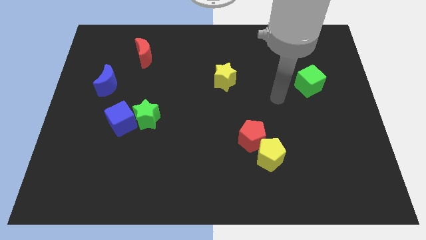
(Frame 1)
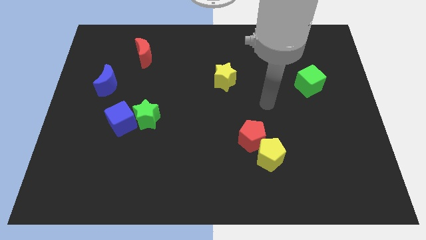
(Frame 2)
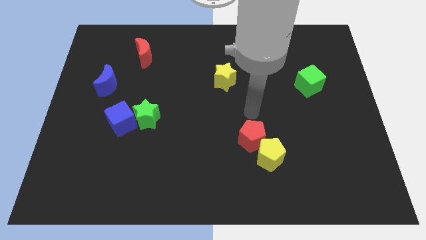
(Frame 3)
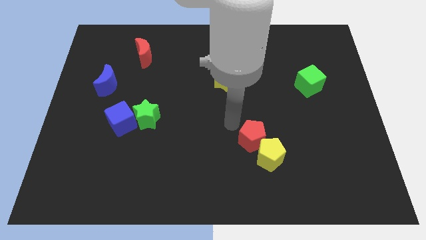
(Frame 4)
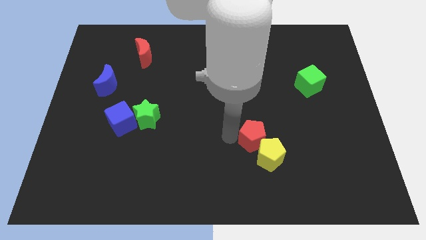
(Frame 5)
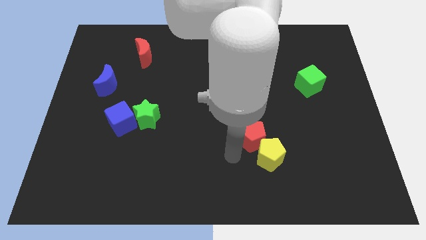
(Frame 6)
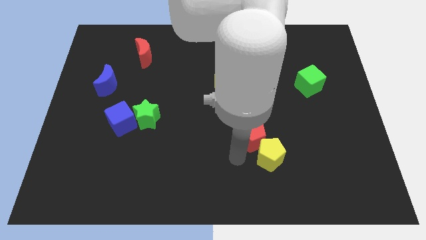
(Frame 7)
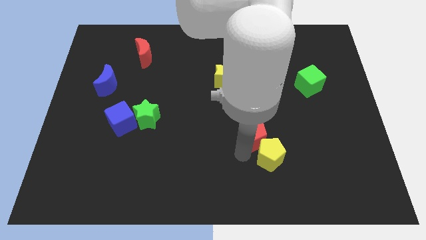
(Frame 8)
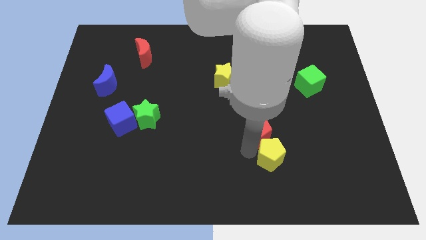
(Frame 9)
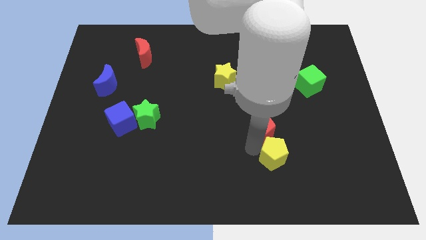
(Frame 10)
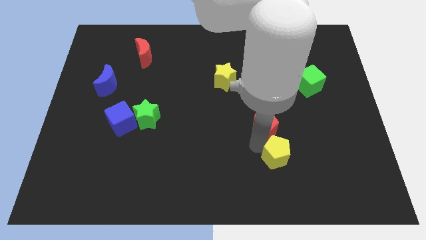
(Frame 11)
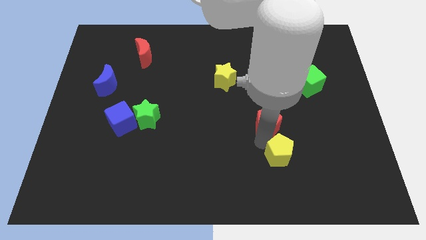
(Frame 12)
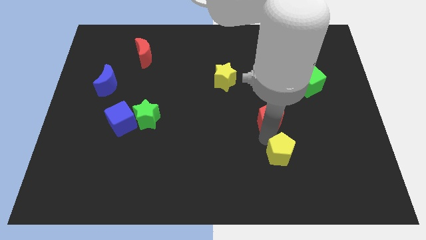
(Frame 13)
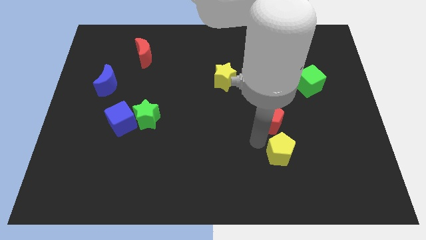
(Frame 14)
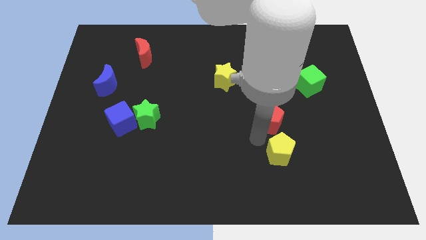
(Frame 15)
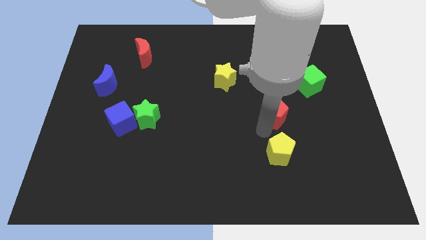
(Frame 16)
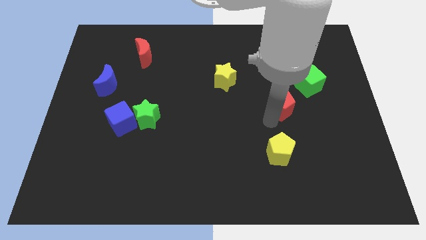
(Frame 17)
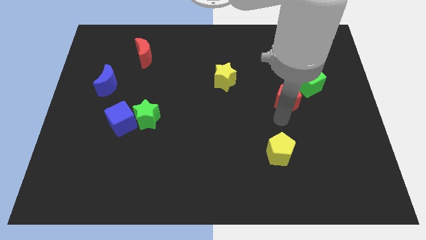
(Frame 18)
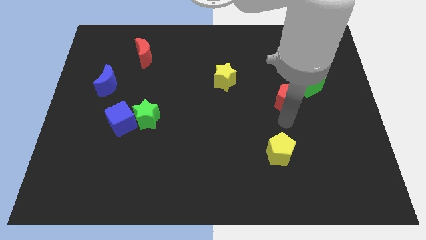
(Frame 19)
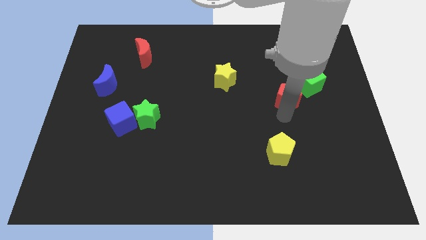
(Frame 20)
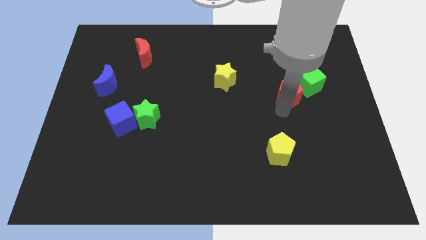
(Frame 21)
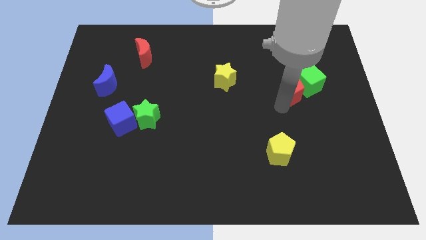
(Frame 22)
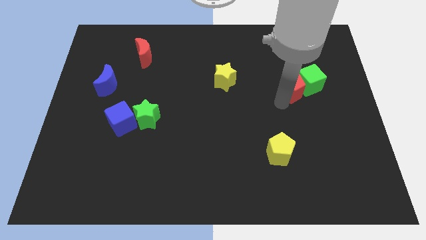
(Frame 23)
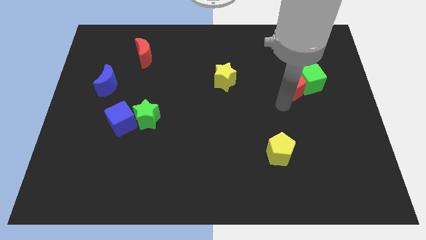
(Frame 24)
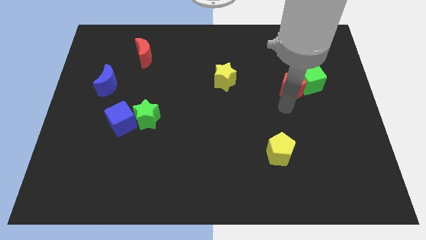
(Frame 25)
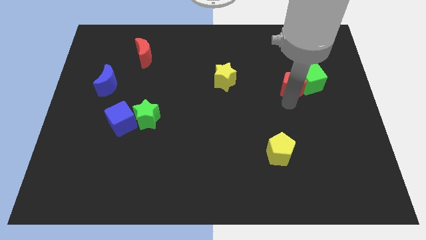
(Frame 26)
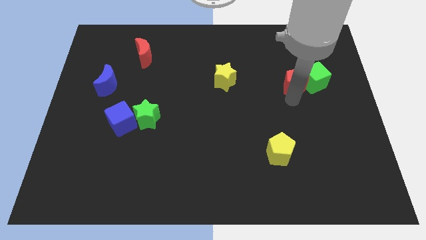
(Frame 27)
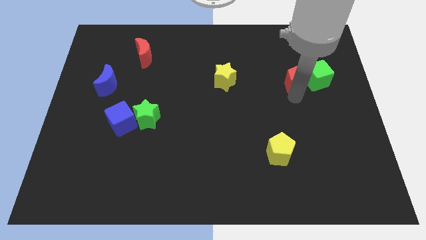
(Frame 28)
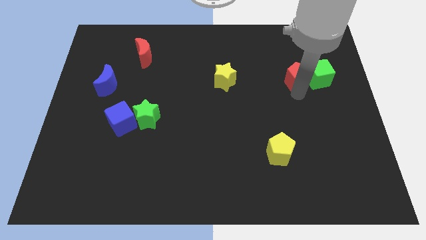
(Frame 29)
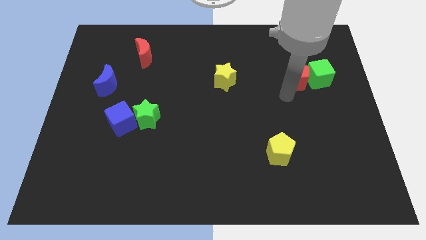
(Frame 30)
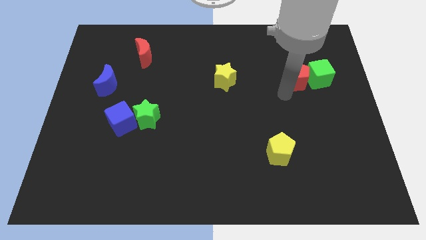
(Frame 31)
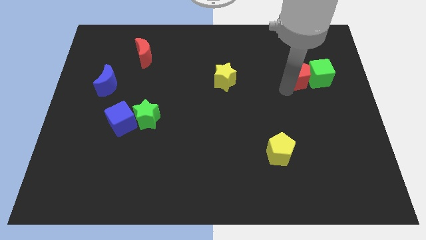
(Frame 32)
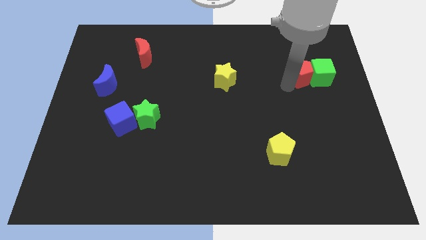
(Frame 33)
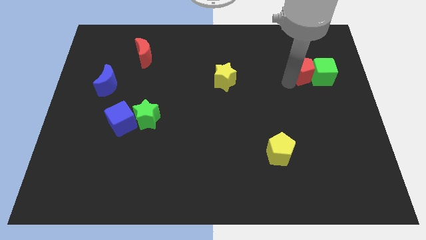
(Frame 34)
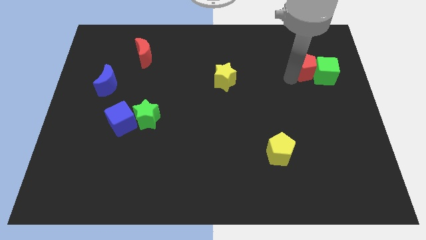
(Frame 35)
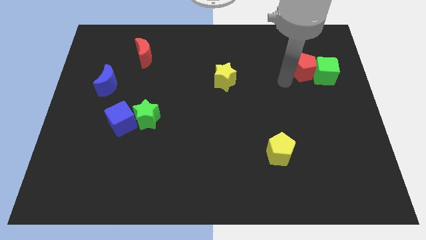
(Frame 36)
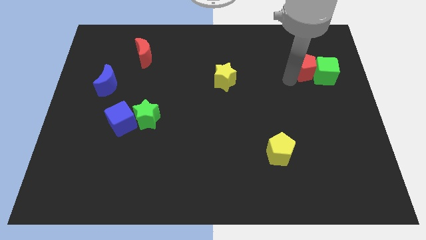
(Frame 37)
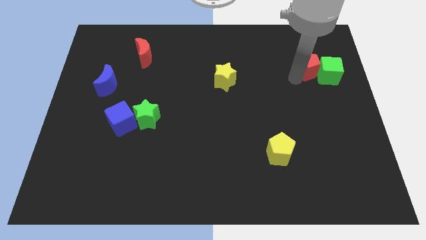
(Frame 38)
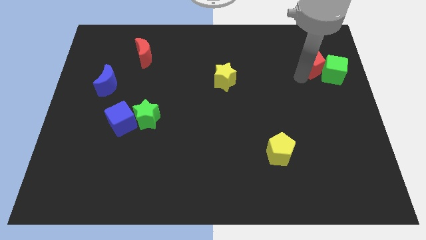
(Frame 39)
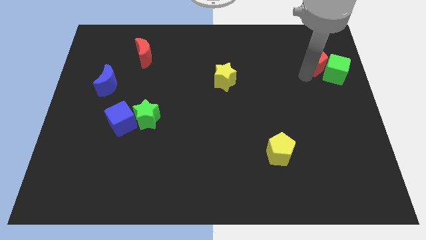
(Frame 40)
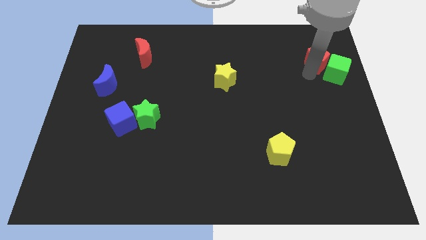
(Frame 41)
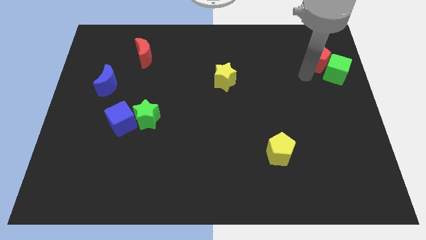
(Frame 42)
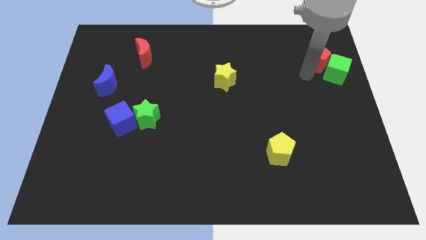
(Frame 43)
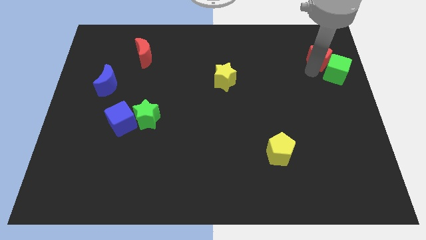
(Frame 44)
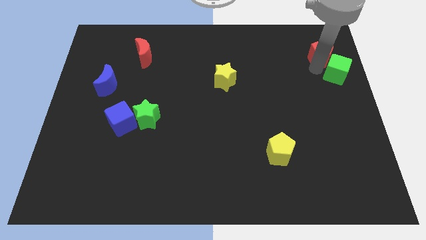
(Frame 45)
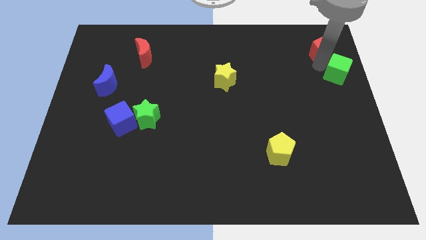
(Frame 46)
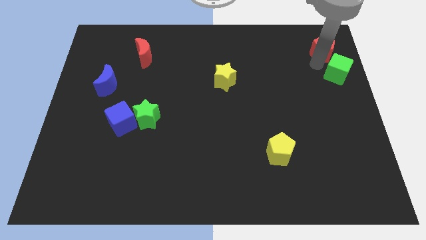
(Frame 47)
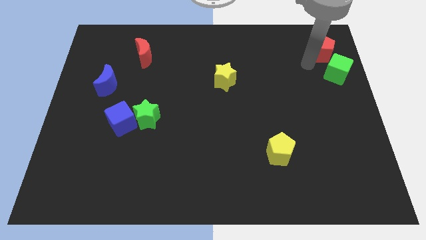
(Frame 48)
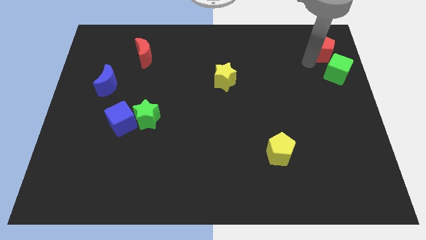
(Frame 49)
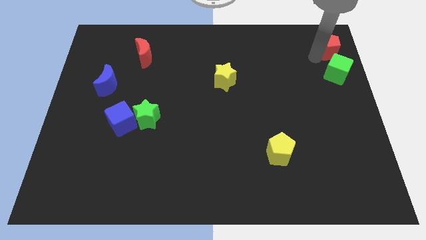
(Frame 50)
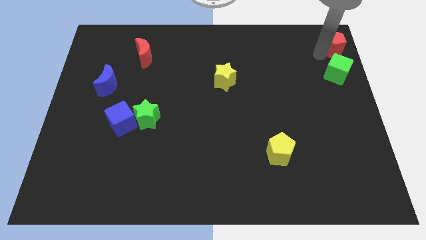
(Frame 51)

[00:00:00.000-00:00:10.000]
push the red pentagon to the top right of the board
